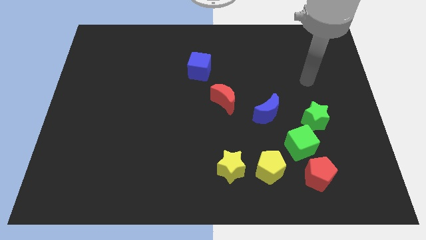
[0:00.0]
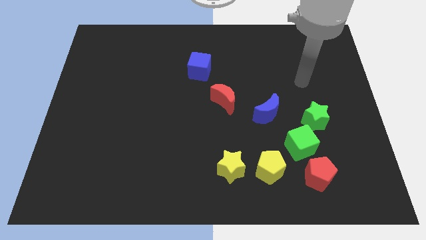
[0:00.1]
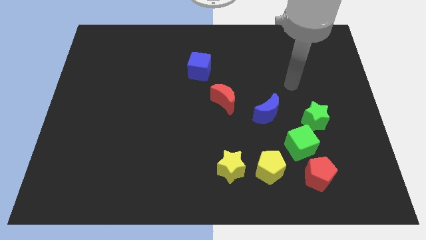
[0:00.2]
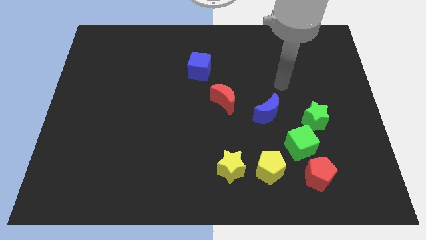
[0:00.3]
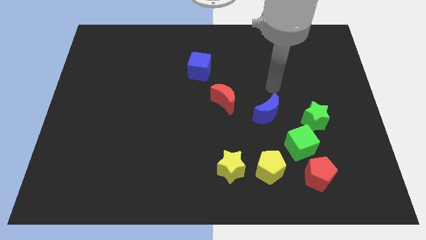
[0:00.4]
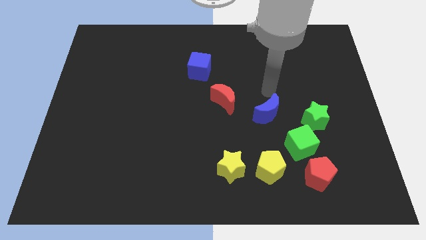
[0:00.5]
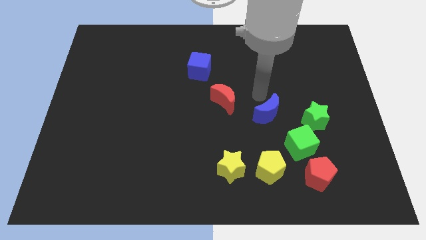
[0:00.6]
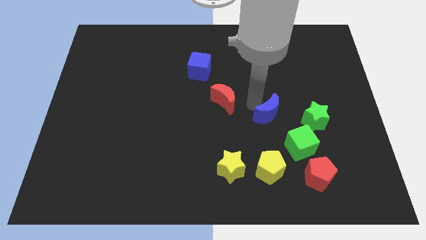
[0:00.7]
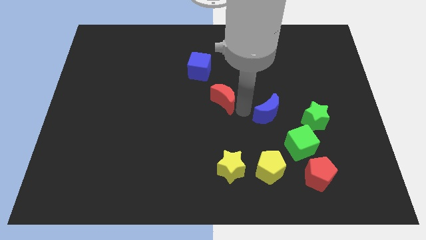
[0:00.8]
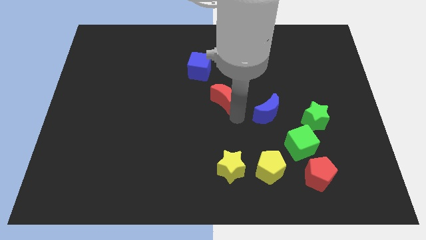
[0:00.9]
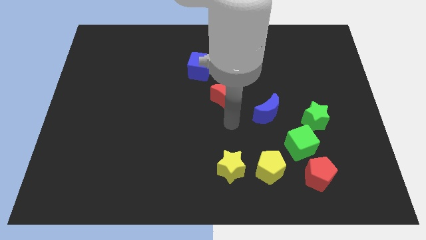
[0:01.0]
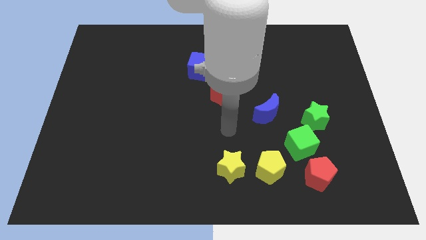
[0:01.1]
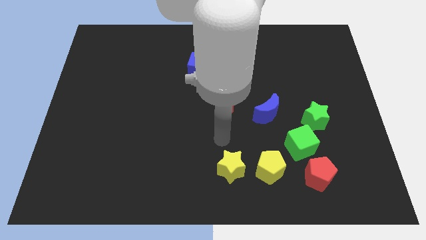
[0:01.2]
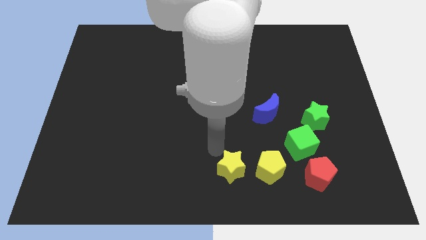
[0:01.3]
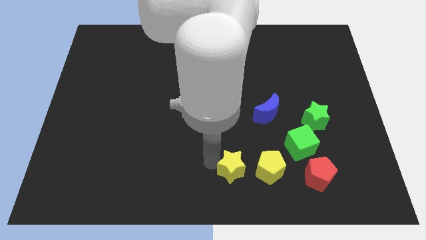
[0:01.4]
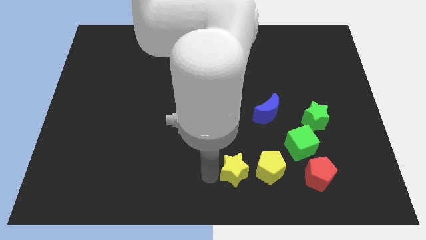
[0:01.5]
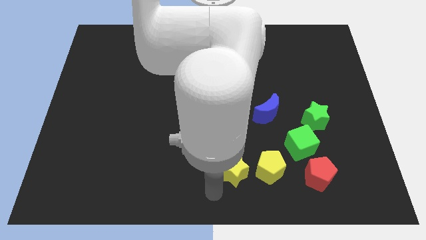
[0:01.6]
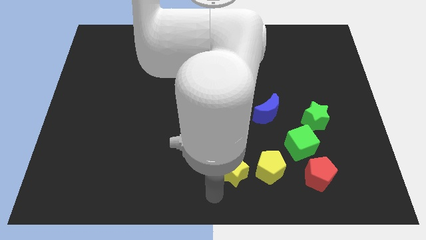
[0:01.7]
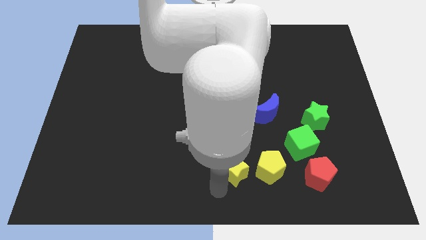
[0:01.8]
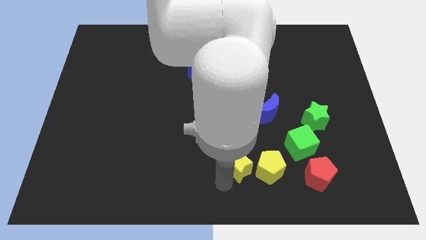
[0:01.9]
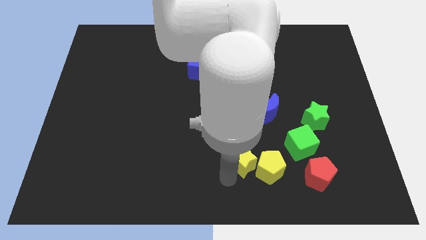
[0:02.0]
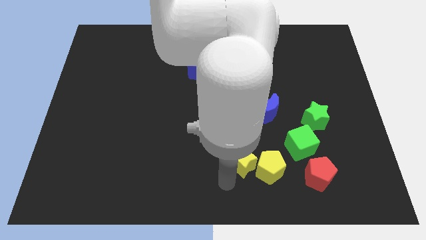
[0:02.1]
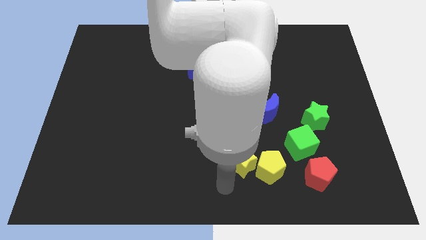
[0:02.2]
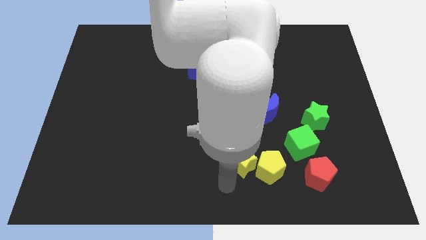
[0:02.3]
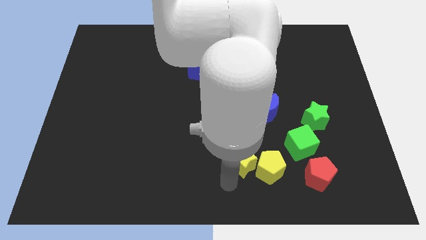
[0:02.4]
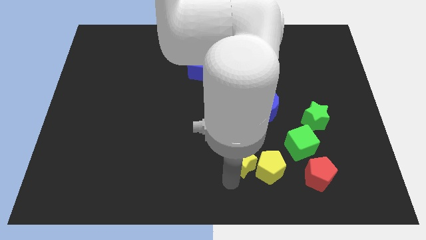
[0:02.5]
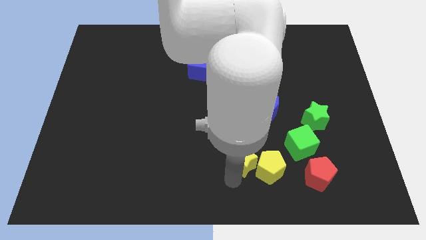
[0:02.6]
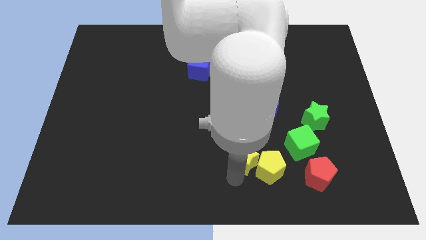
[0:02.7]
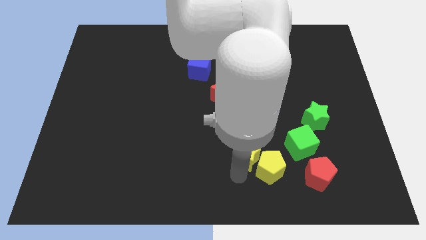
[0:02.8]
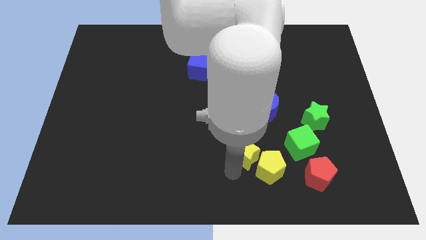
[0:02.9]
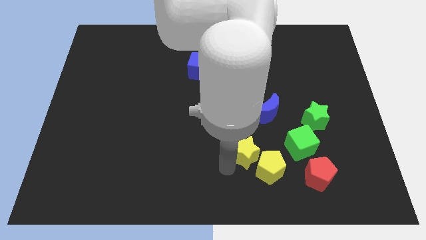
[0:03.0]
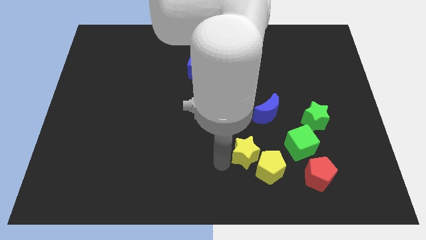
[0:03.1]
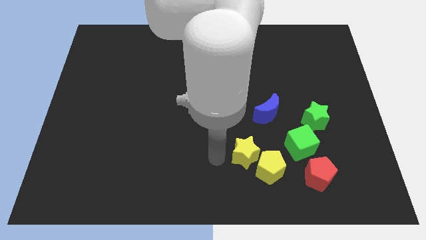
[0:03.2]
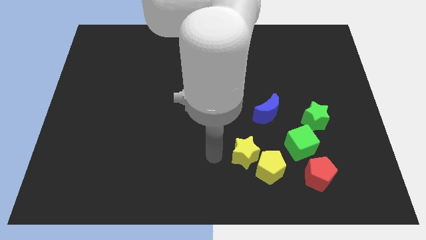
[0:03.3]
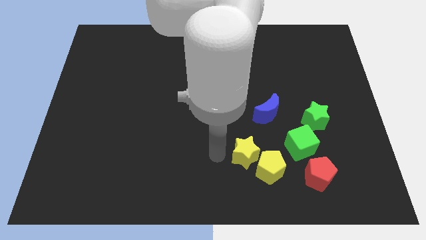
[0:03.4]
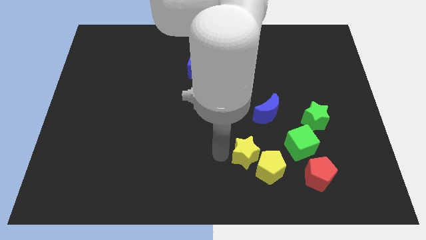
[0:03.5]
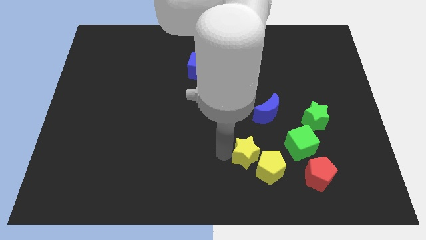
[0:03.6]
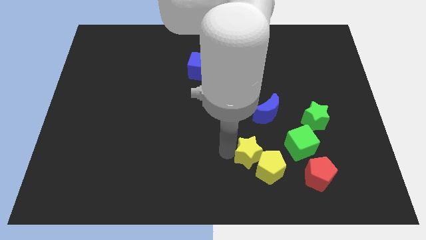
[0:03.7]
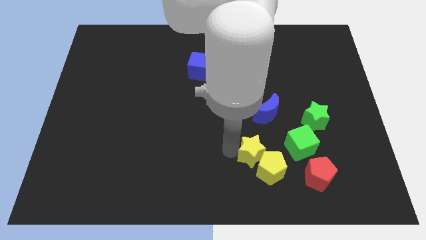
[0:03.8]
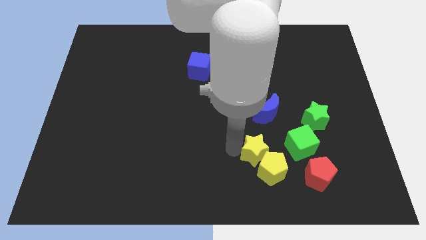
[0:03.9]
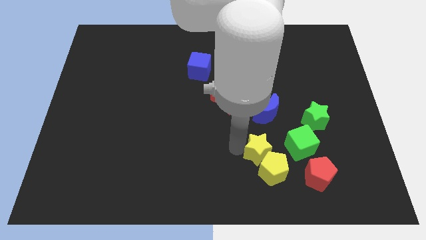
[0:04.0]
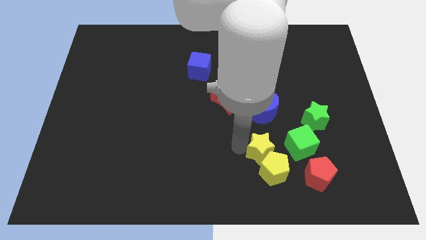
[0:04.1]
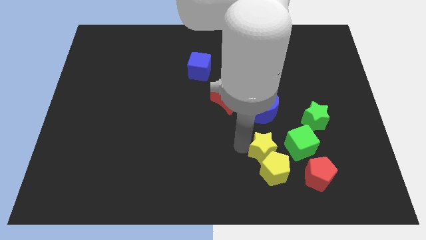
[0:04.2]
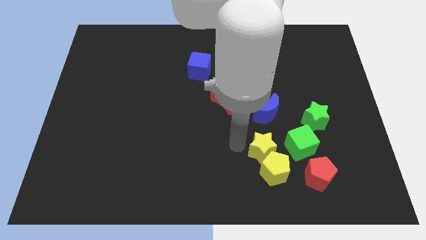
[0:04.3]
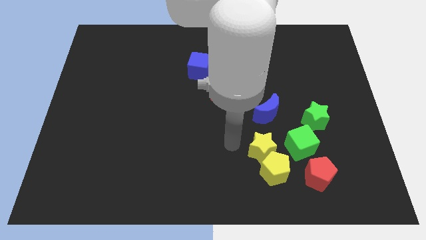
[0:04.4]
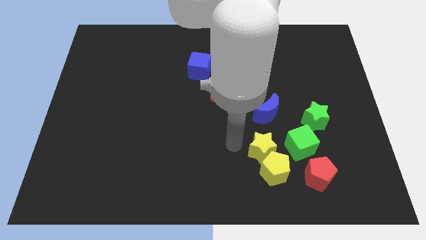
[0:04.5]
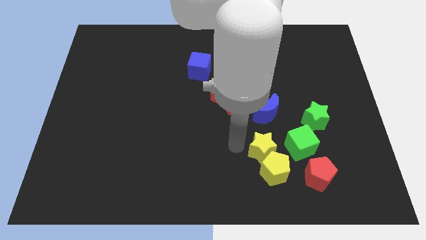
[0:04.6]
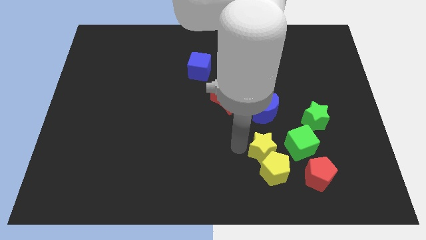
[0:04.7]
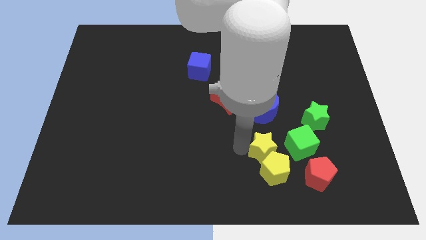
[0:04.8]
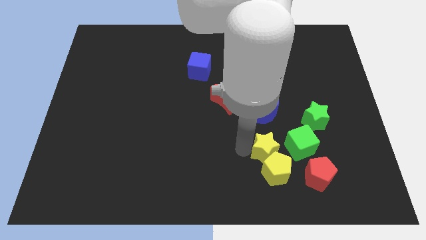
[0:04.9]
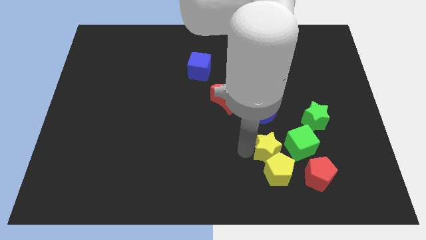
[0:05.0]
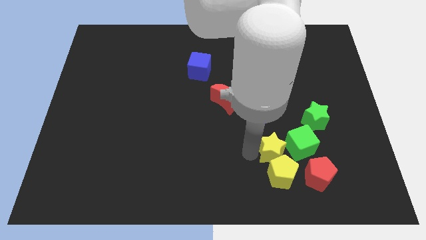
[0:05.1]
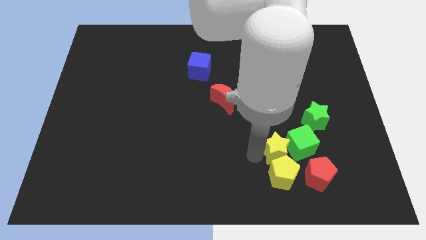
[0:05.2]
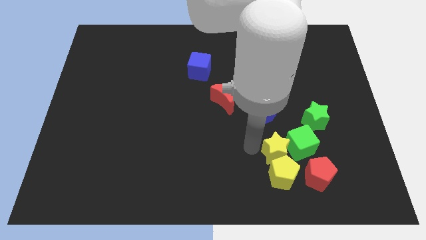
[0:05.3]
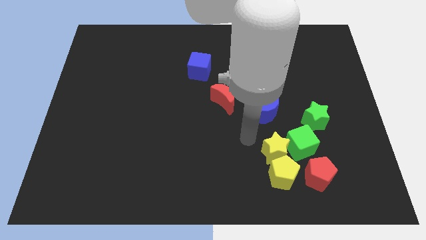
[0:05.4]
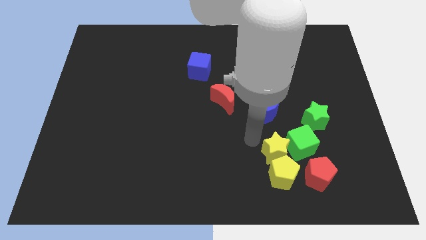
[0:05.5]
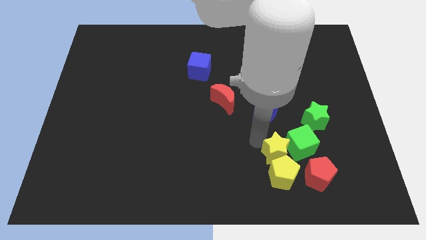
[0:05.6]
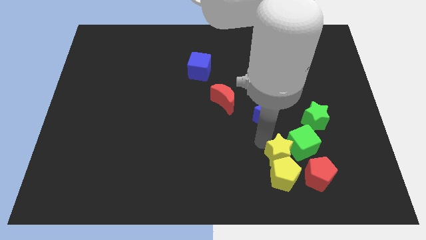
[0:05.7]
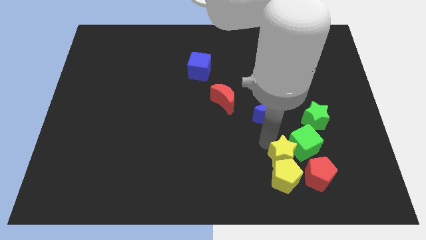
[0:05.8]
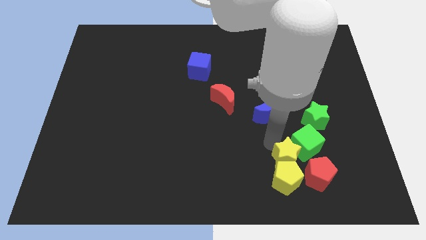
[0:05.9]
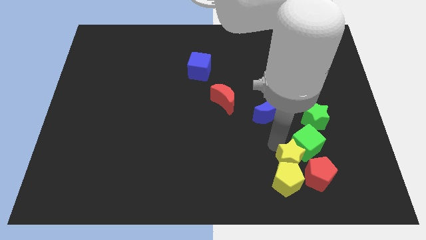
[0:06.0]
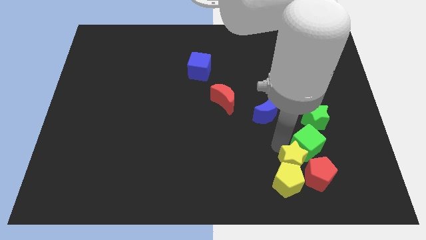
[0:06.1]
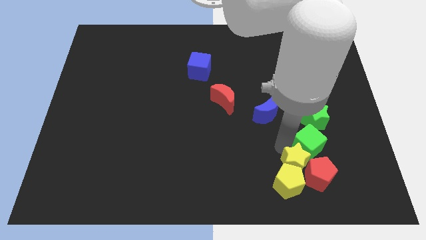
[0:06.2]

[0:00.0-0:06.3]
slide the yellow star to the red pentagon
